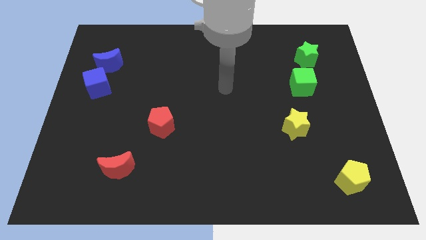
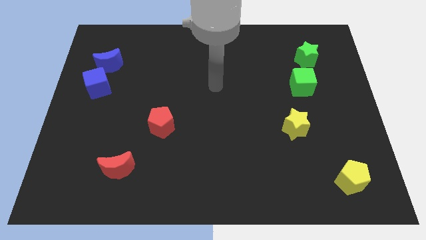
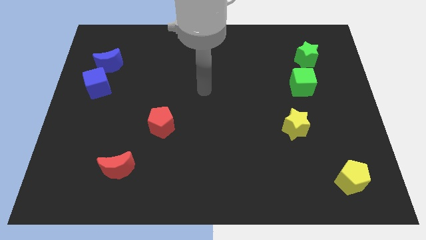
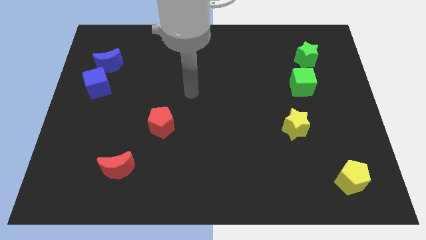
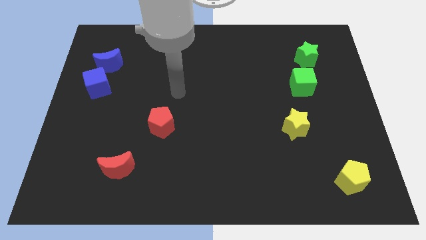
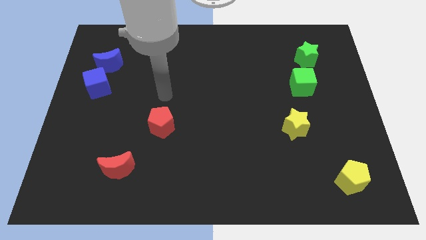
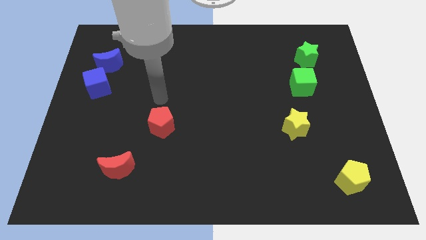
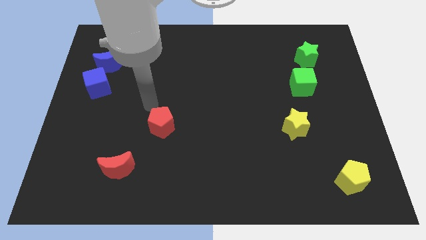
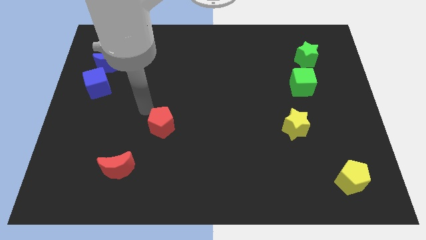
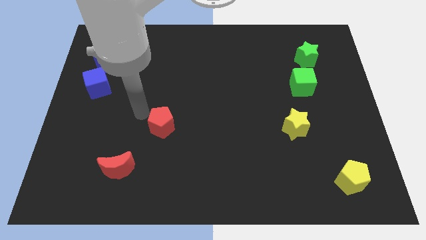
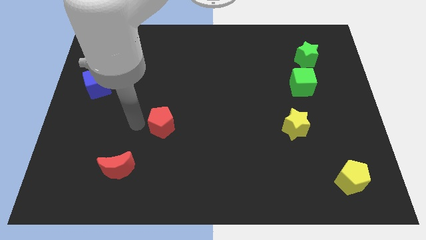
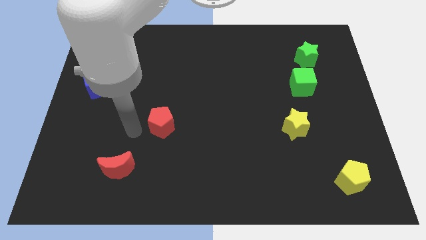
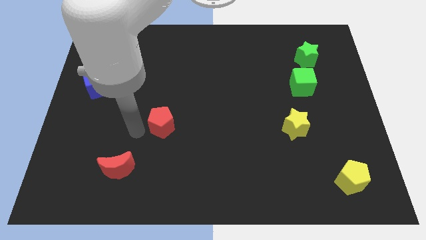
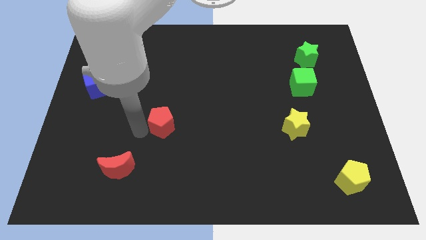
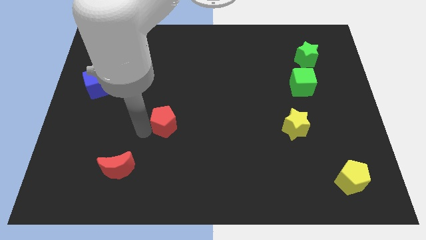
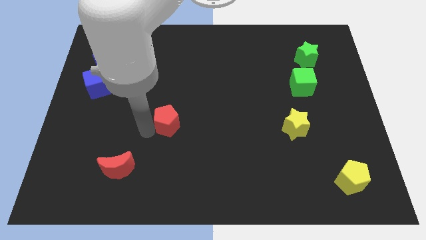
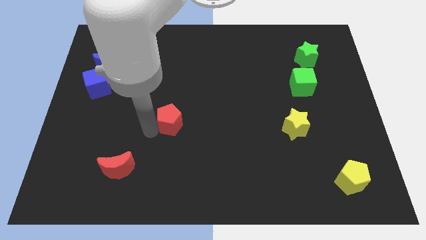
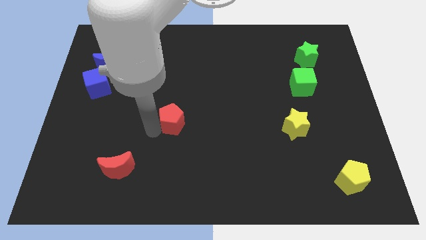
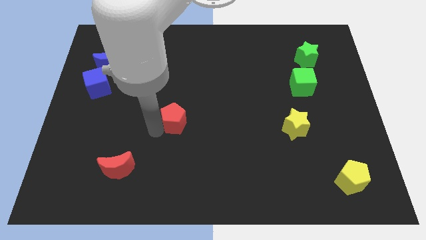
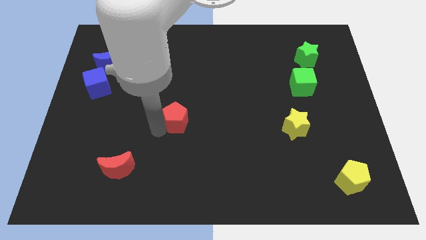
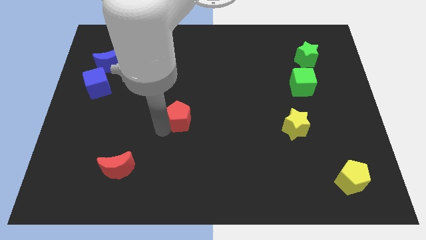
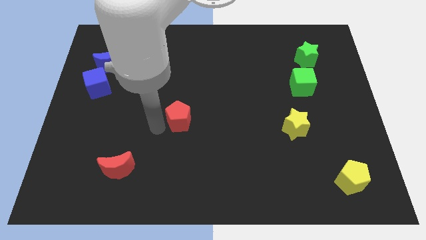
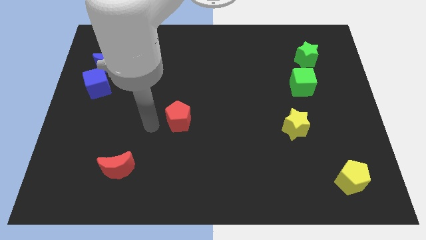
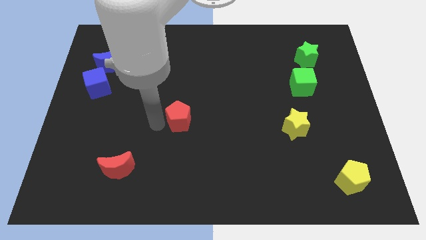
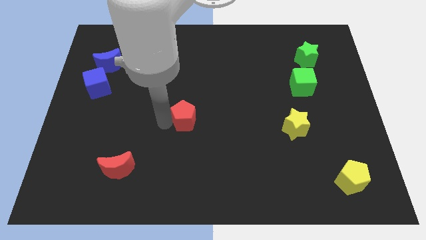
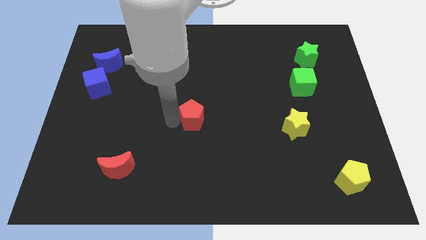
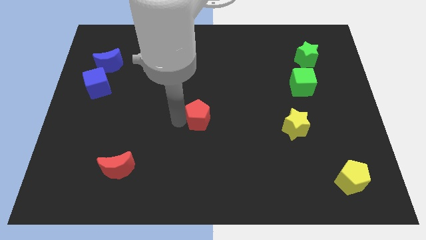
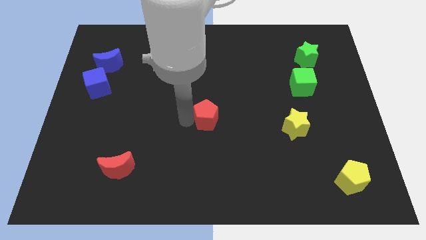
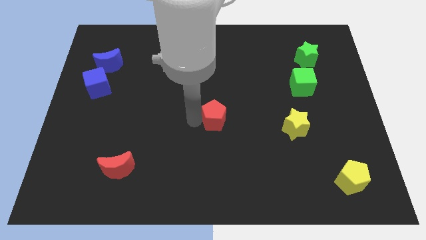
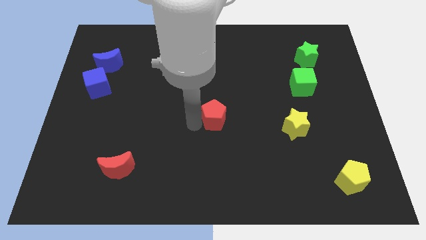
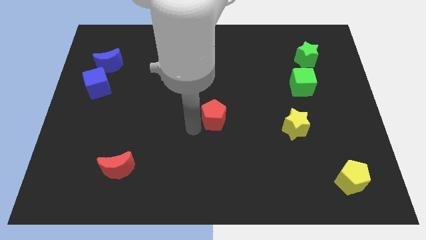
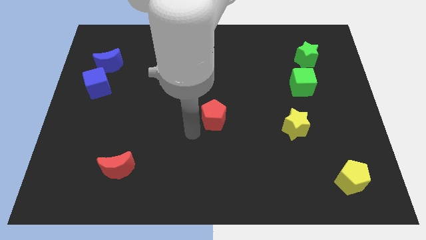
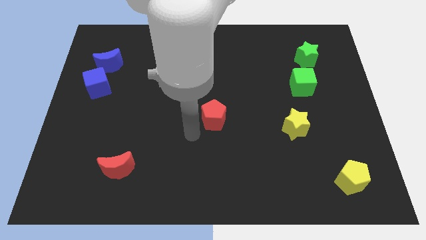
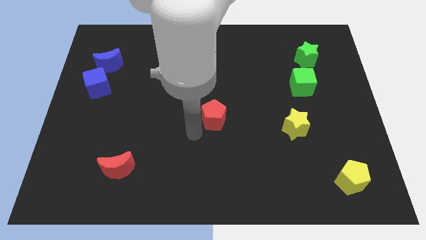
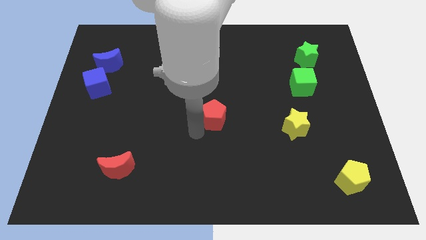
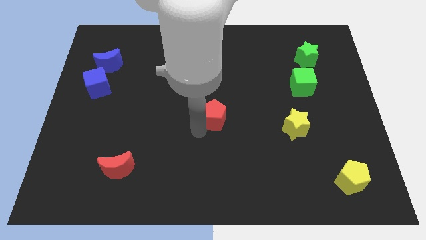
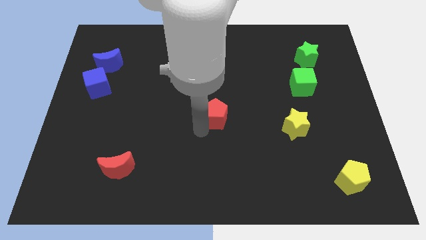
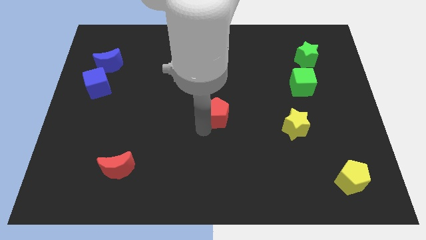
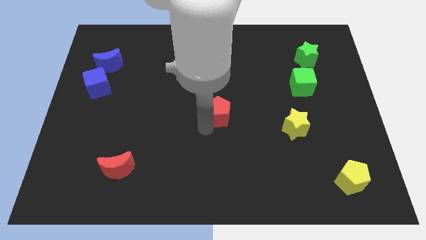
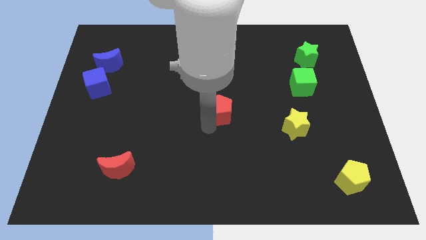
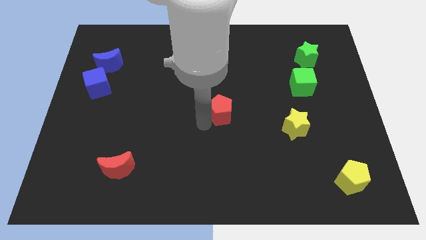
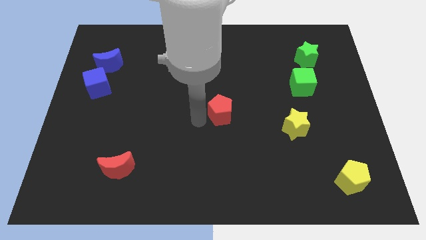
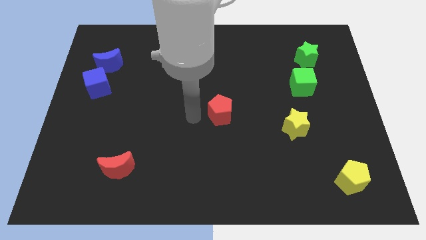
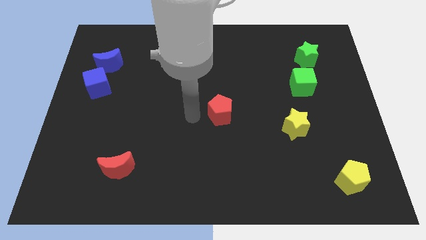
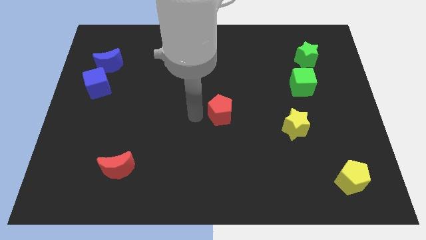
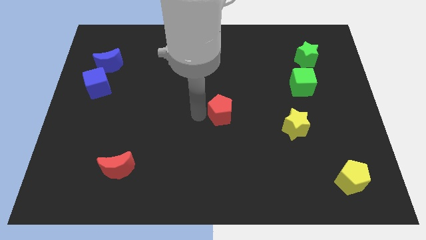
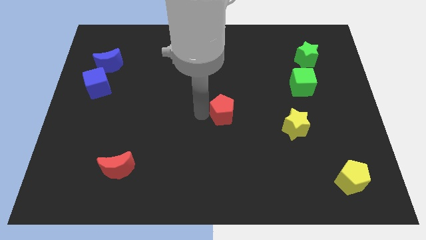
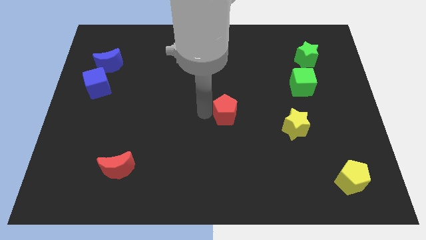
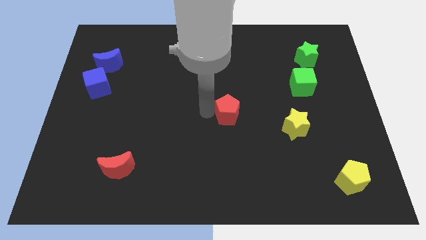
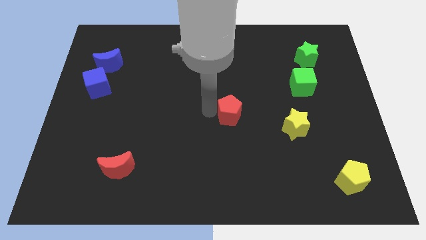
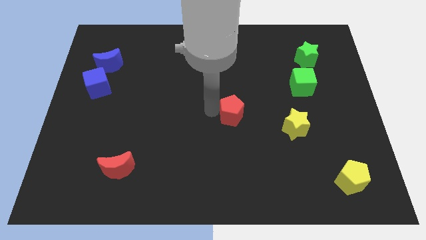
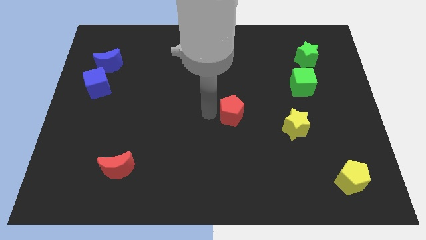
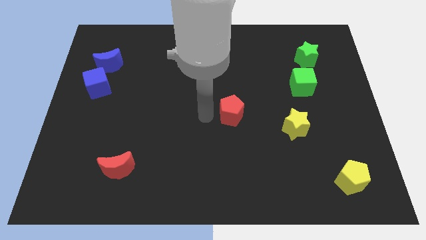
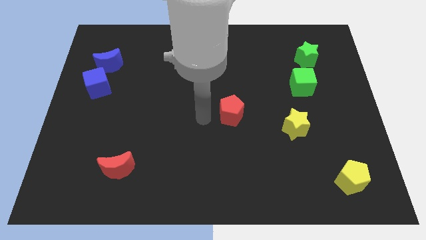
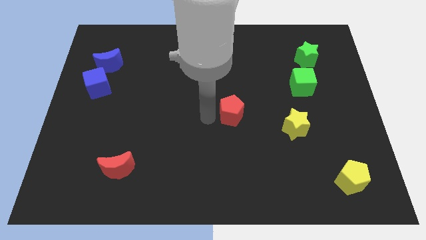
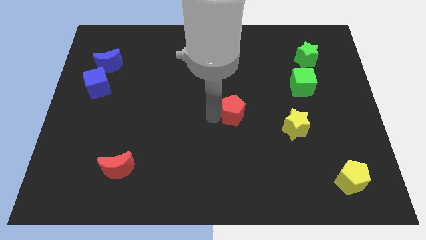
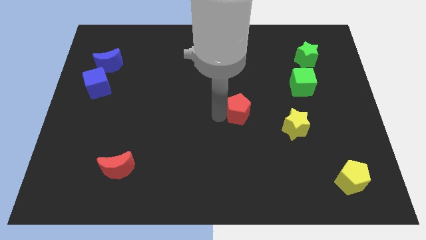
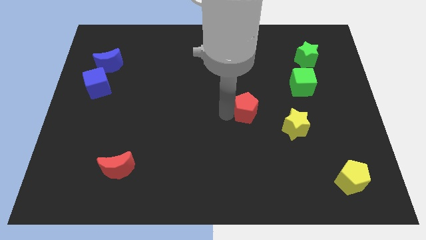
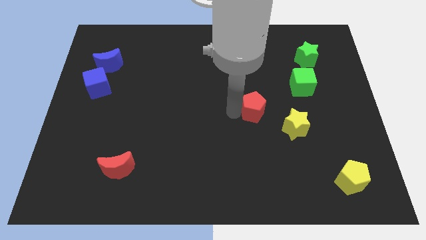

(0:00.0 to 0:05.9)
move the red pentagon to the top left side of the yellow star

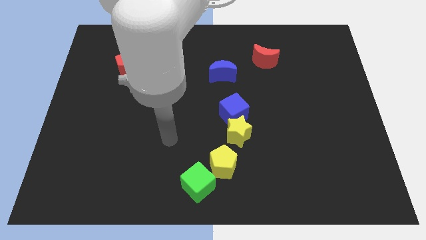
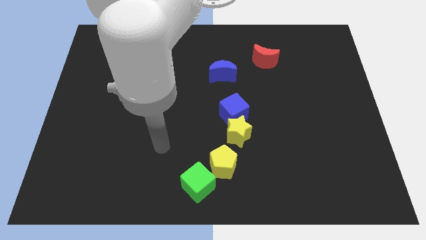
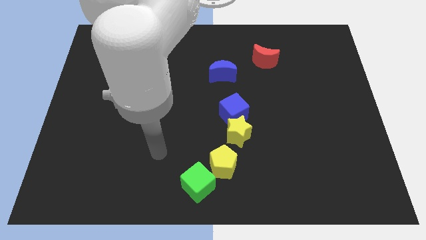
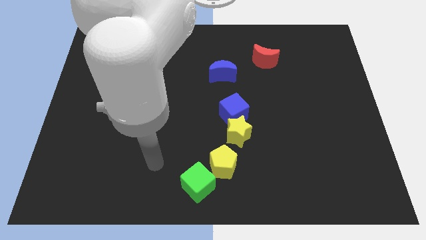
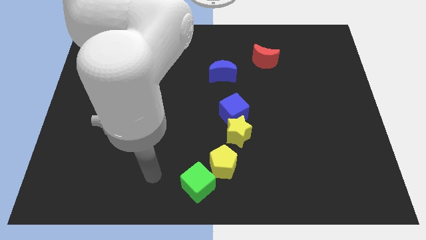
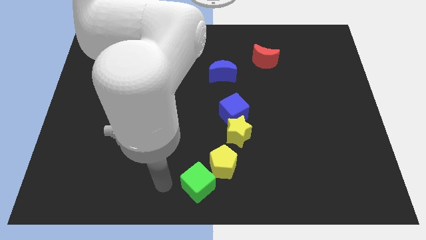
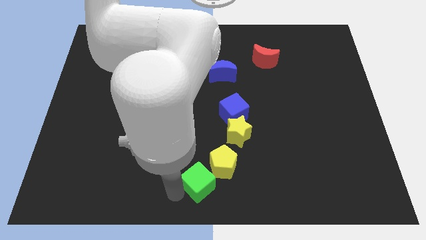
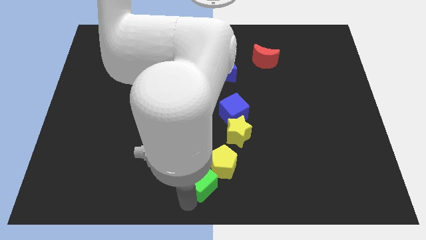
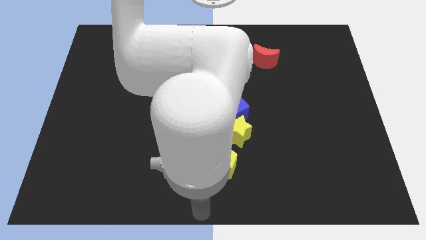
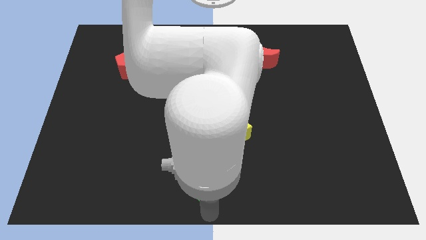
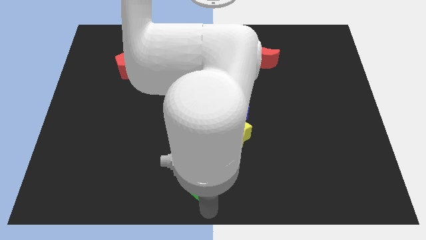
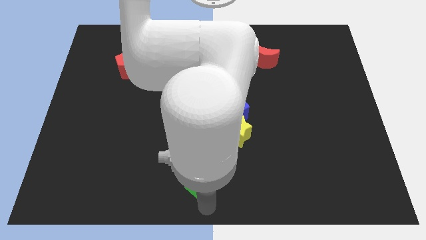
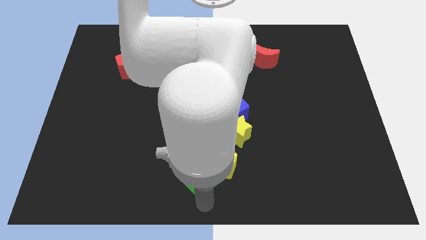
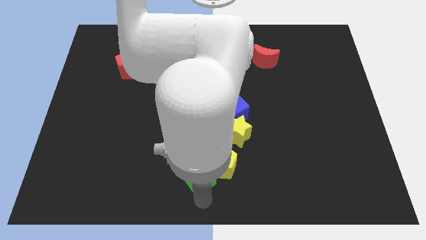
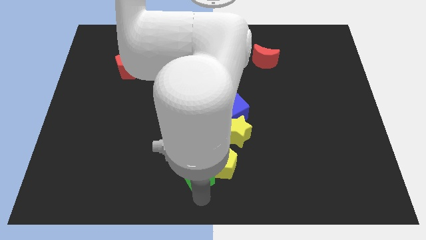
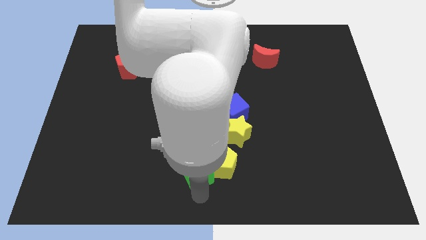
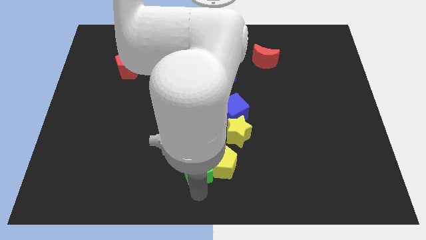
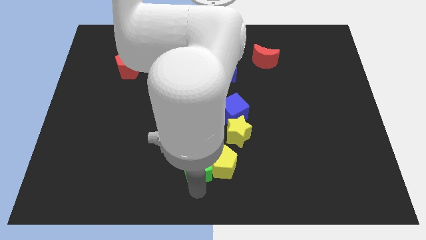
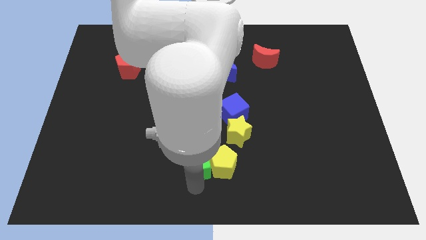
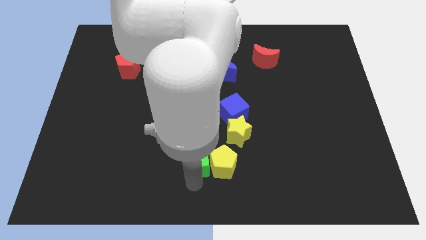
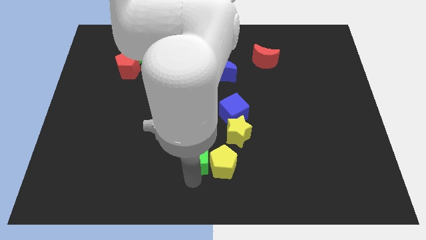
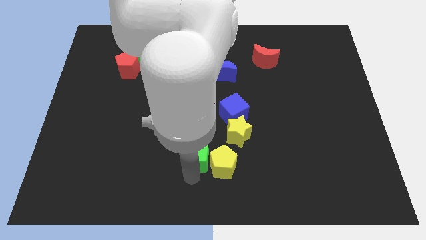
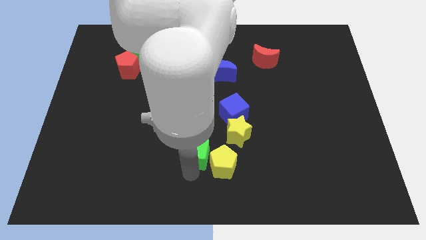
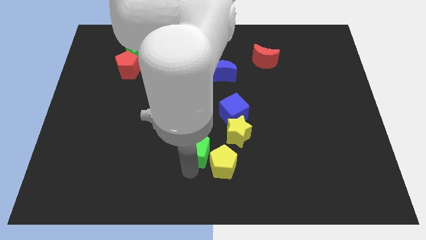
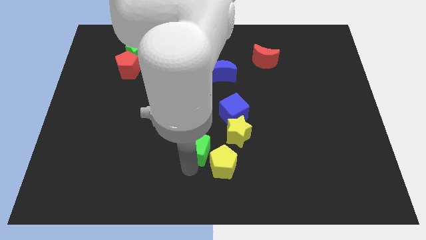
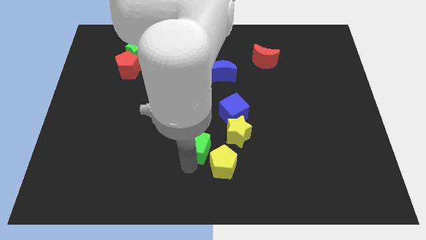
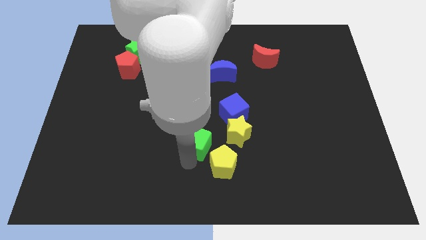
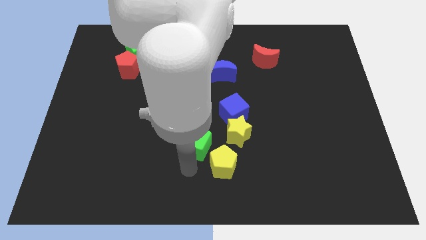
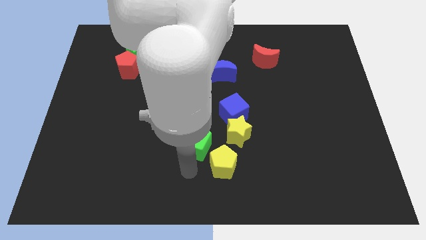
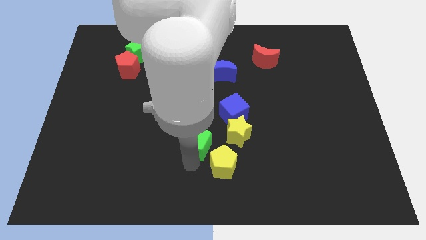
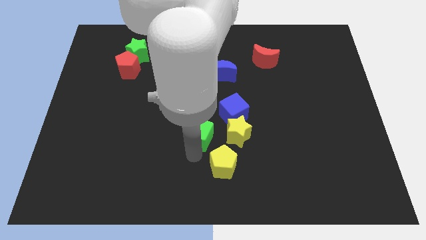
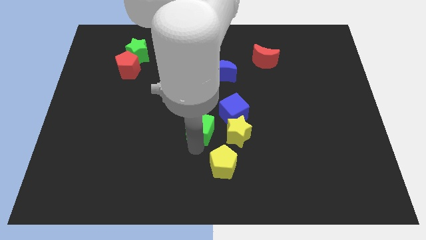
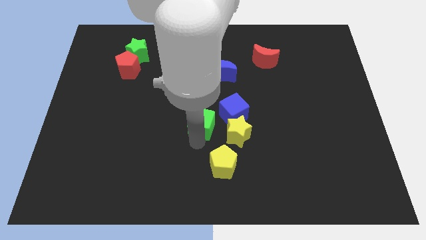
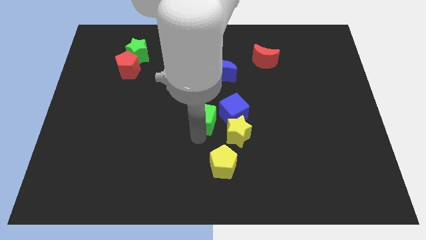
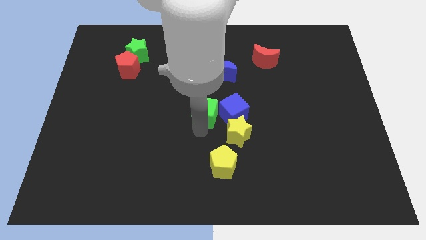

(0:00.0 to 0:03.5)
move the green cube to the top left of the blue cube
